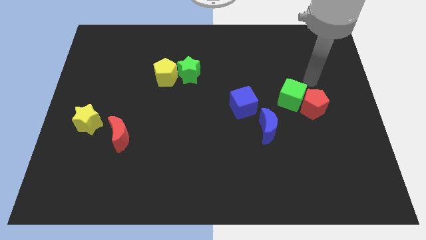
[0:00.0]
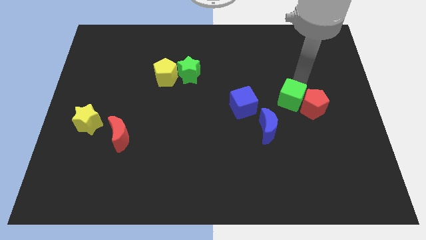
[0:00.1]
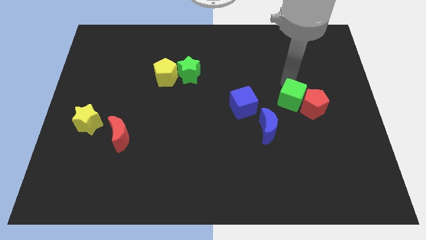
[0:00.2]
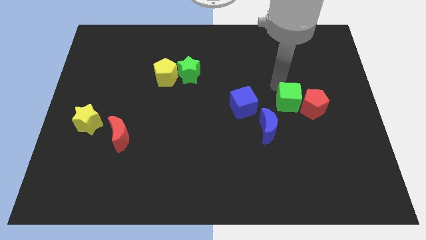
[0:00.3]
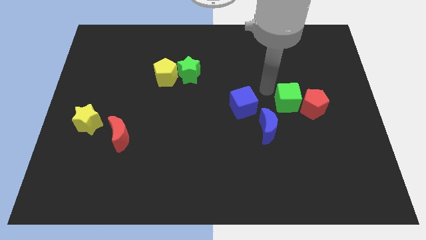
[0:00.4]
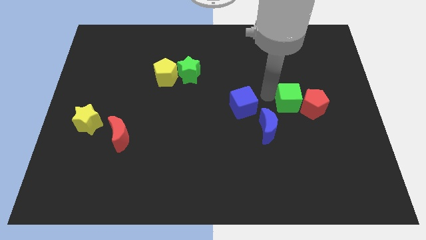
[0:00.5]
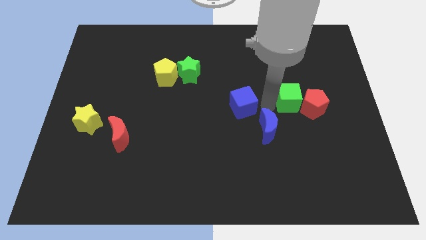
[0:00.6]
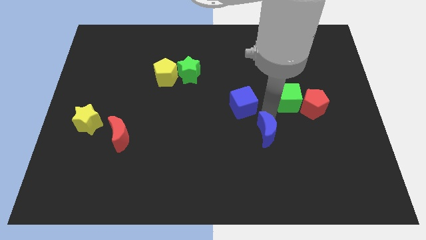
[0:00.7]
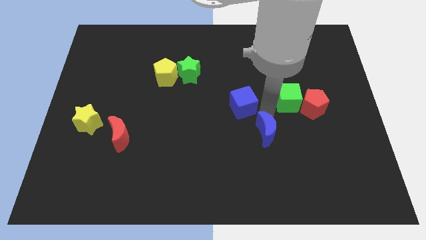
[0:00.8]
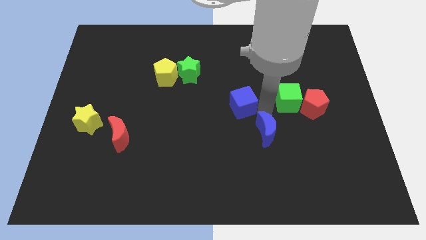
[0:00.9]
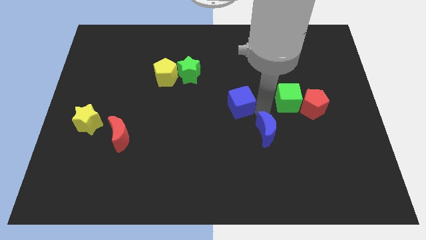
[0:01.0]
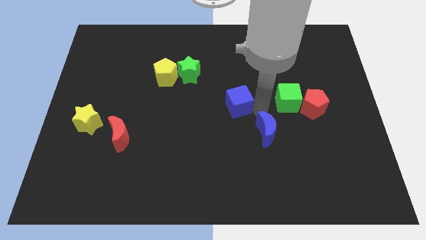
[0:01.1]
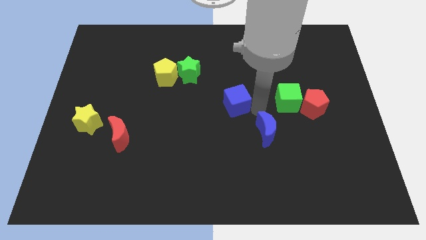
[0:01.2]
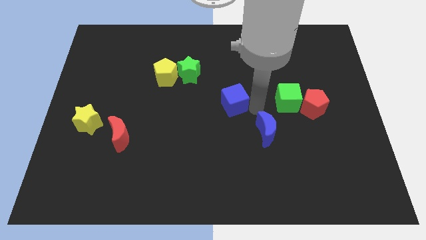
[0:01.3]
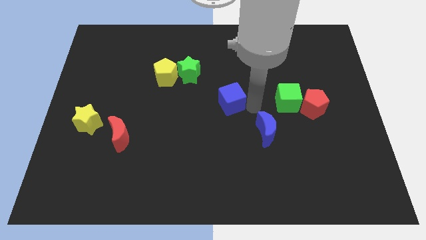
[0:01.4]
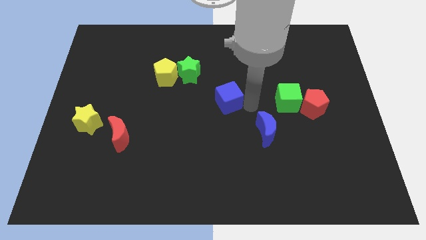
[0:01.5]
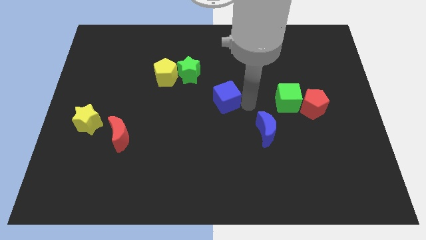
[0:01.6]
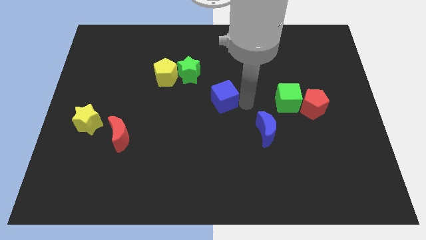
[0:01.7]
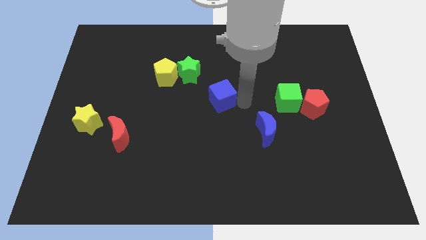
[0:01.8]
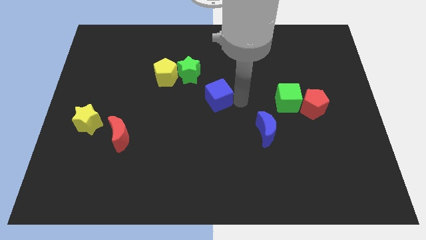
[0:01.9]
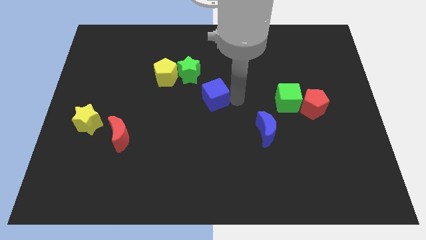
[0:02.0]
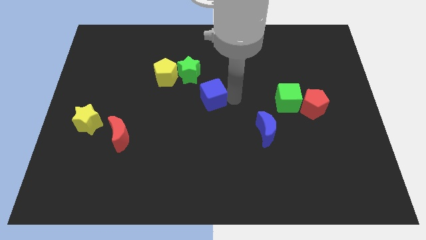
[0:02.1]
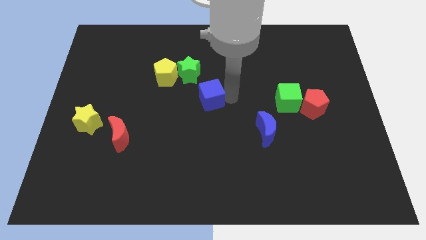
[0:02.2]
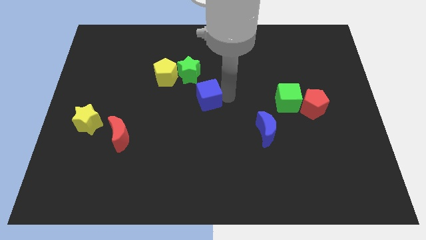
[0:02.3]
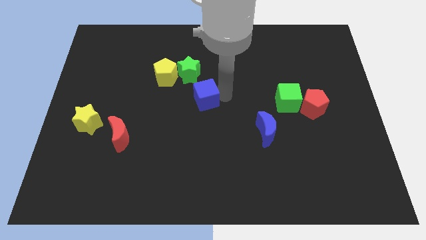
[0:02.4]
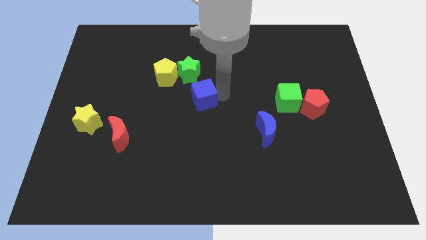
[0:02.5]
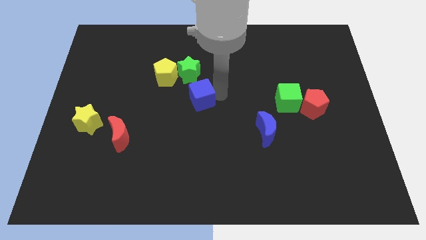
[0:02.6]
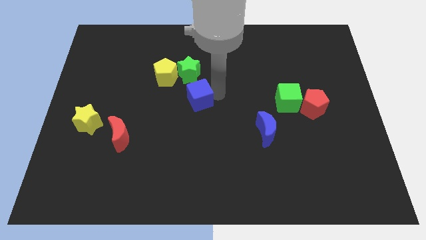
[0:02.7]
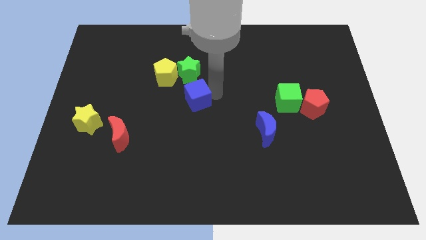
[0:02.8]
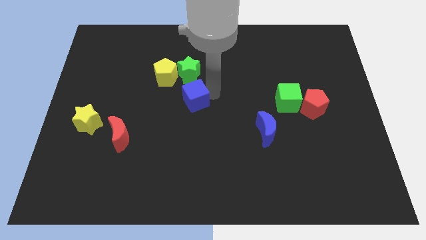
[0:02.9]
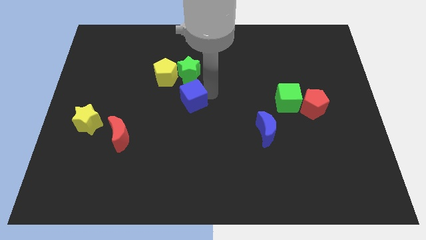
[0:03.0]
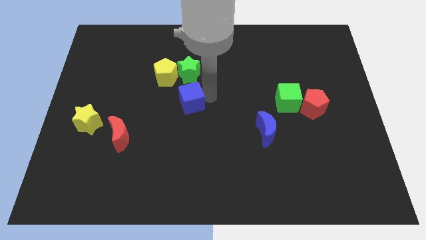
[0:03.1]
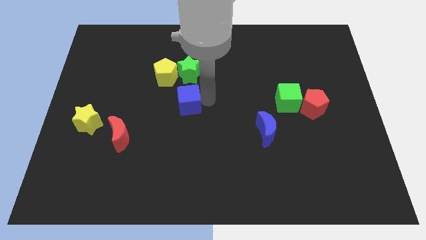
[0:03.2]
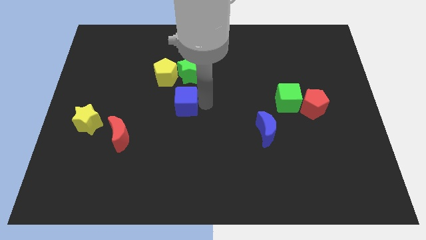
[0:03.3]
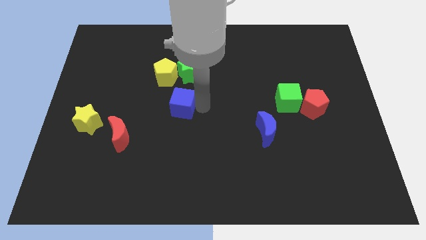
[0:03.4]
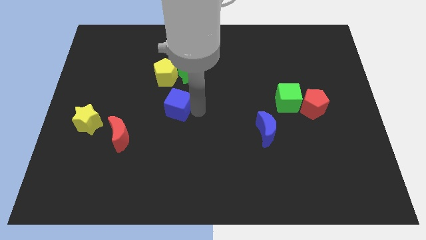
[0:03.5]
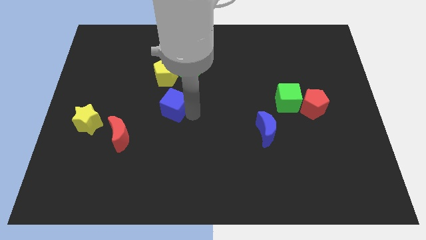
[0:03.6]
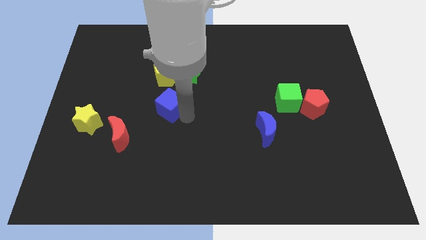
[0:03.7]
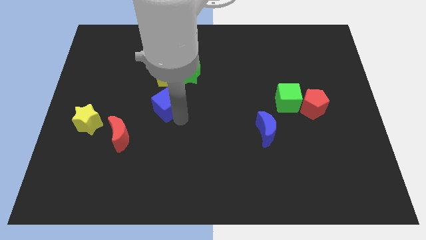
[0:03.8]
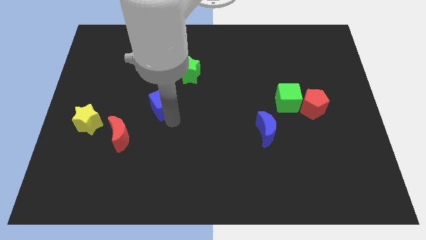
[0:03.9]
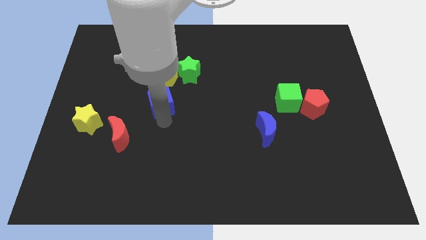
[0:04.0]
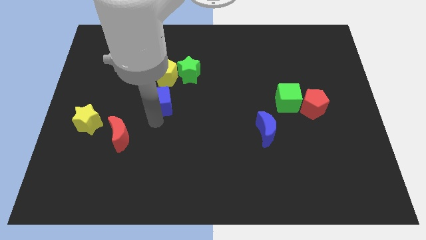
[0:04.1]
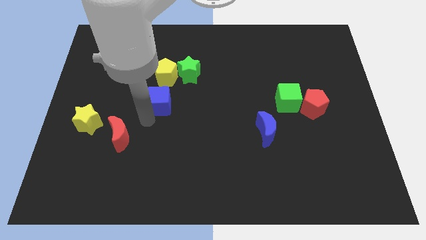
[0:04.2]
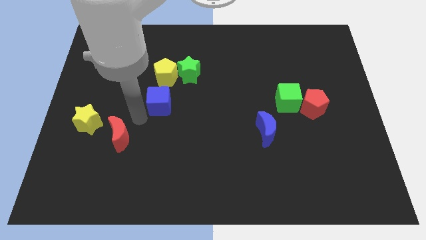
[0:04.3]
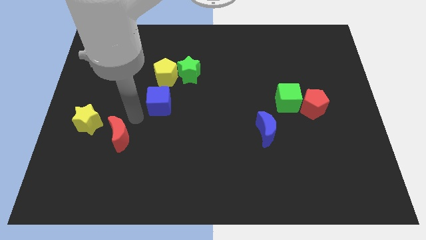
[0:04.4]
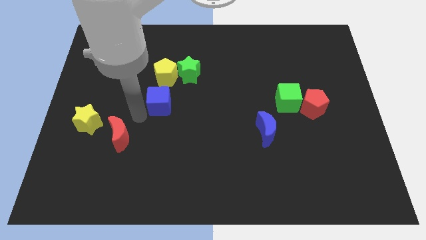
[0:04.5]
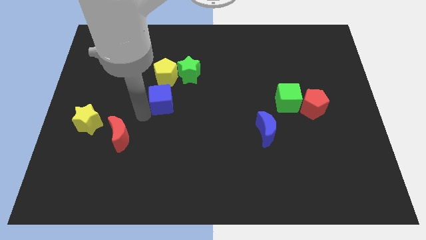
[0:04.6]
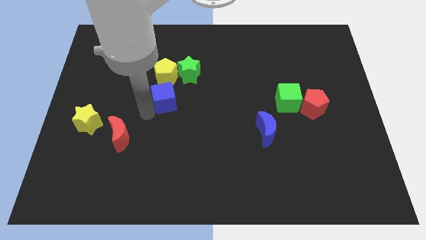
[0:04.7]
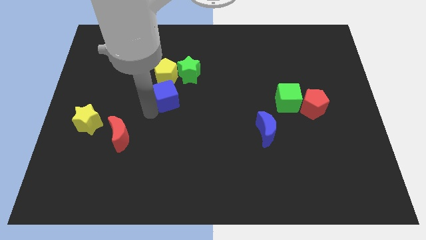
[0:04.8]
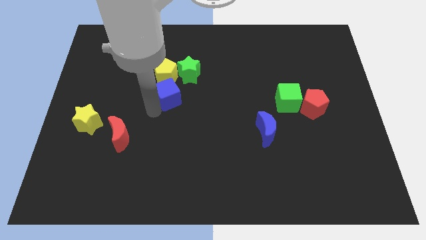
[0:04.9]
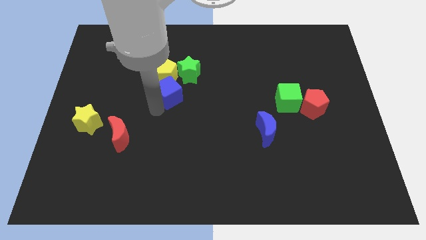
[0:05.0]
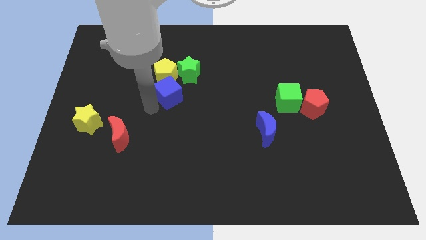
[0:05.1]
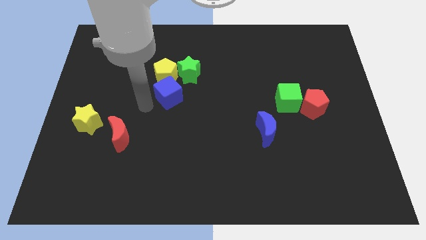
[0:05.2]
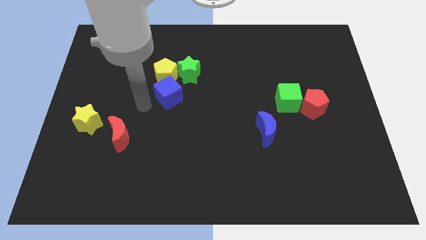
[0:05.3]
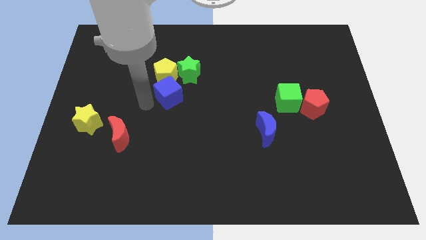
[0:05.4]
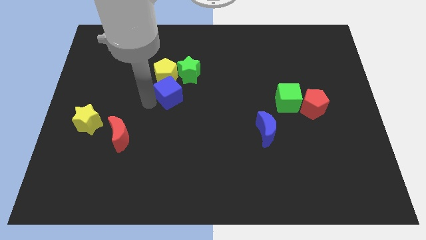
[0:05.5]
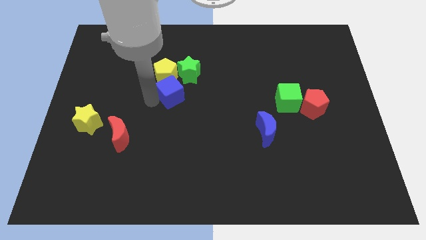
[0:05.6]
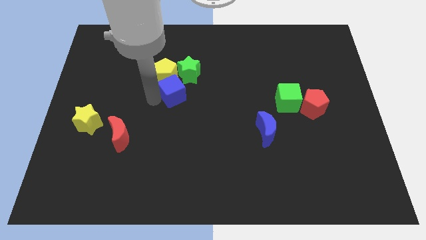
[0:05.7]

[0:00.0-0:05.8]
push the blue cube towards the yellow pentagon

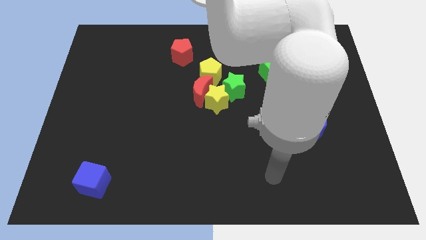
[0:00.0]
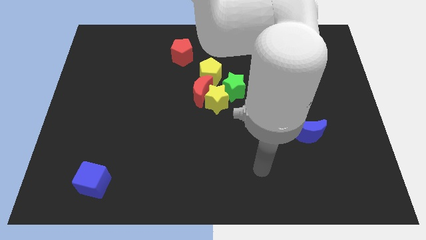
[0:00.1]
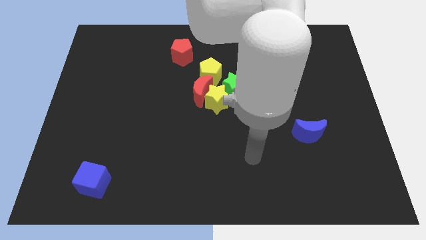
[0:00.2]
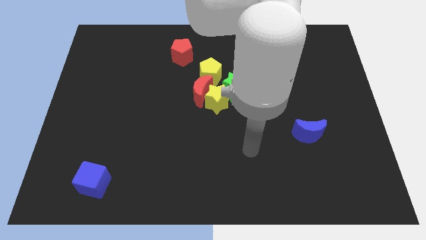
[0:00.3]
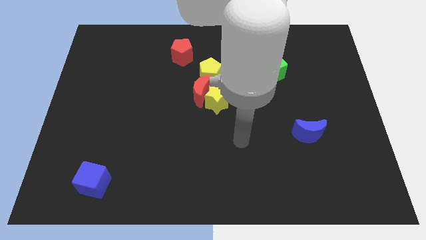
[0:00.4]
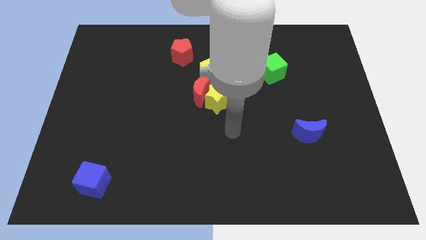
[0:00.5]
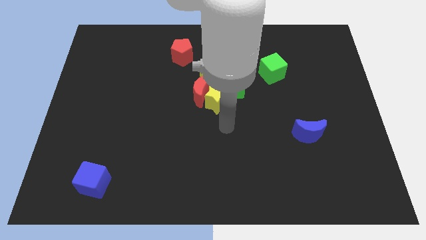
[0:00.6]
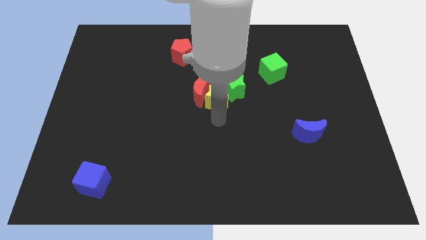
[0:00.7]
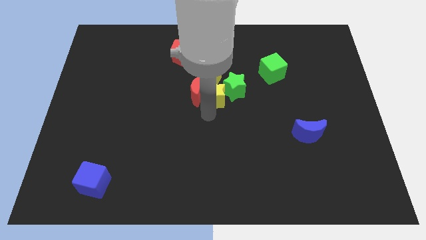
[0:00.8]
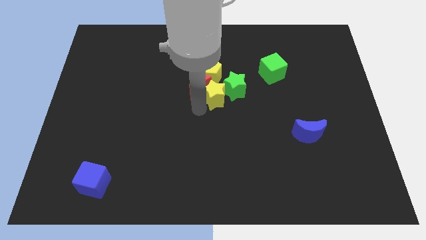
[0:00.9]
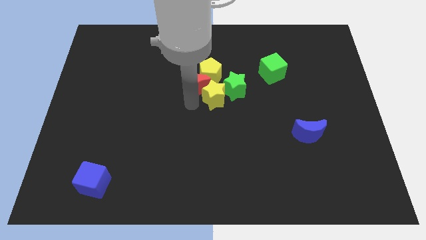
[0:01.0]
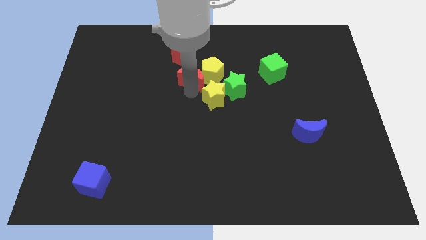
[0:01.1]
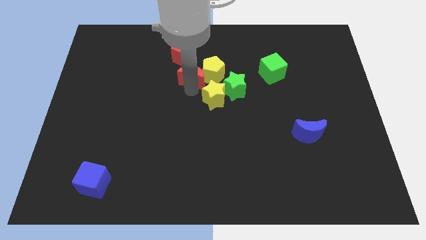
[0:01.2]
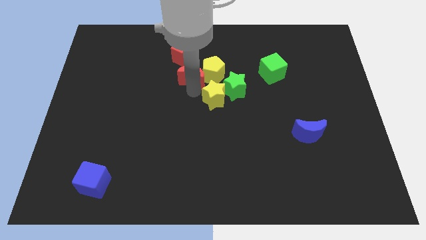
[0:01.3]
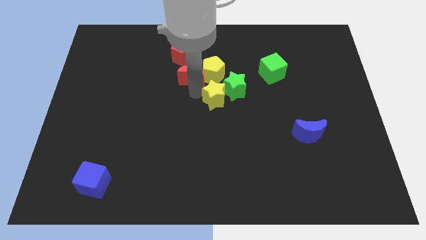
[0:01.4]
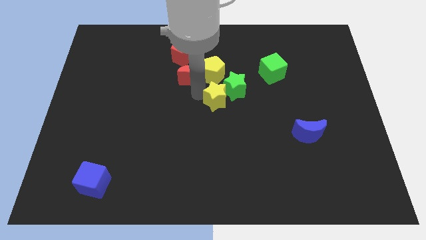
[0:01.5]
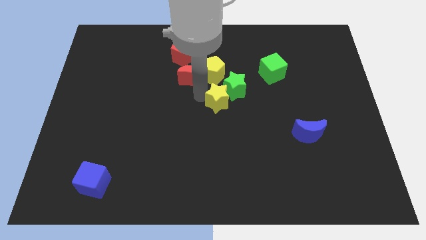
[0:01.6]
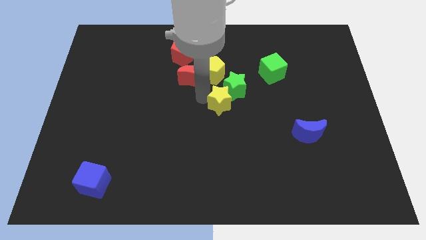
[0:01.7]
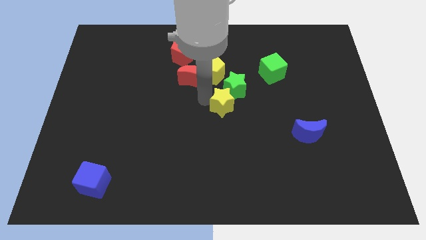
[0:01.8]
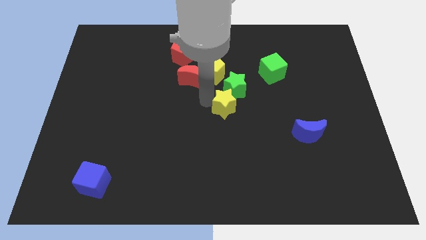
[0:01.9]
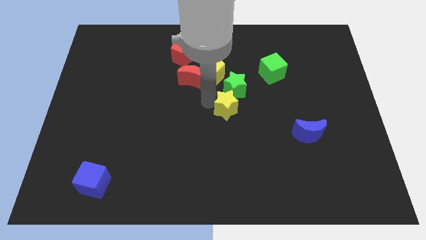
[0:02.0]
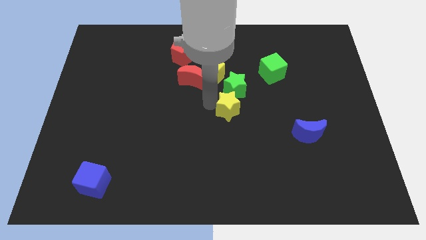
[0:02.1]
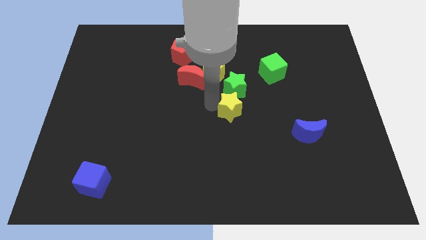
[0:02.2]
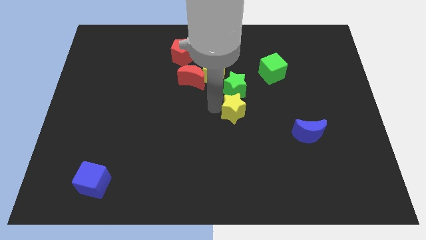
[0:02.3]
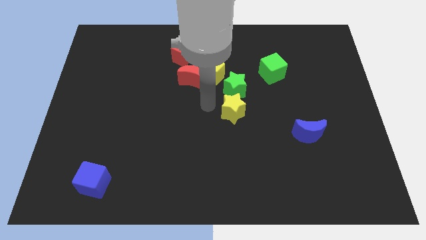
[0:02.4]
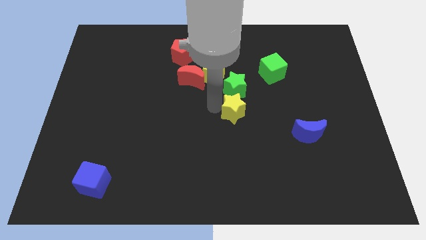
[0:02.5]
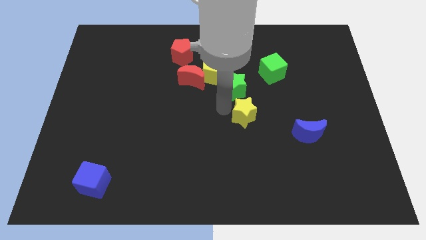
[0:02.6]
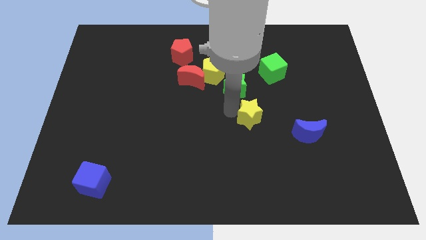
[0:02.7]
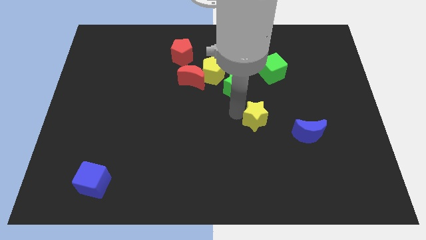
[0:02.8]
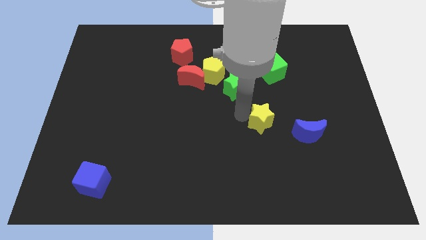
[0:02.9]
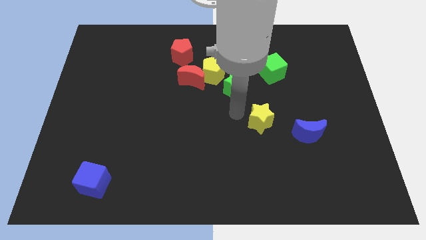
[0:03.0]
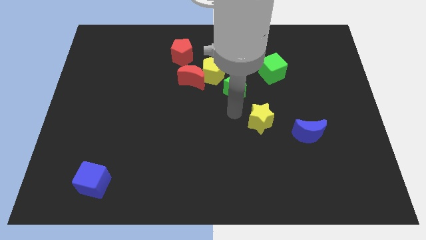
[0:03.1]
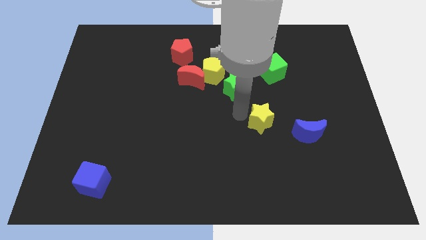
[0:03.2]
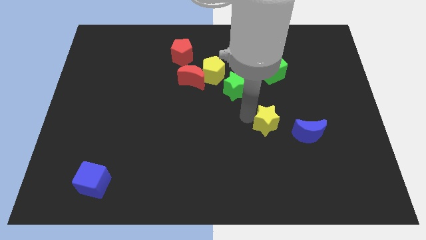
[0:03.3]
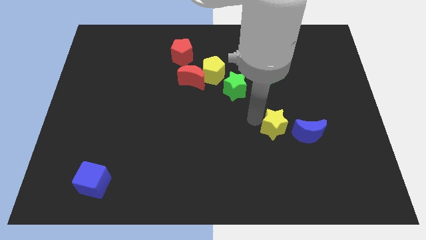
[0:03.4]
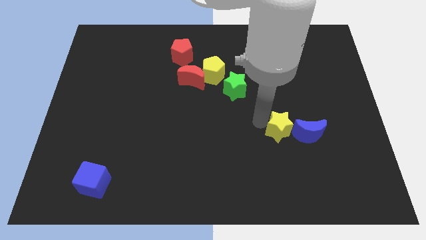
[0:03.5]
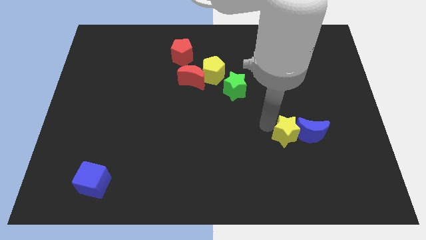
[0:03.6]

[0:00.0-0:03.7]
put the yellow star to the blue moon
